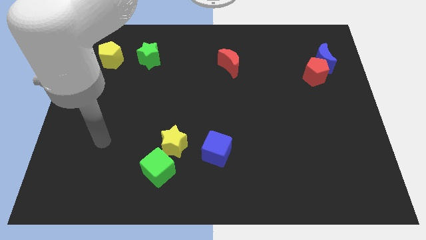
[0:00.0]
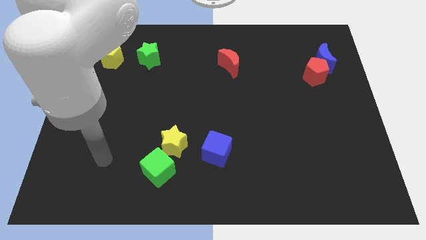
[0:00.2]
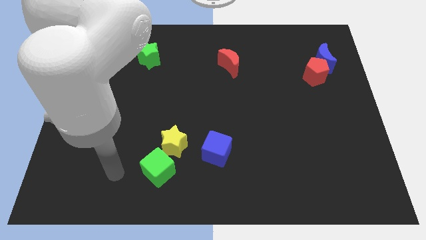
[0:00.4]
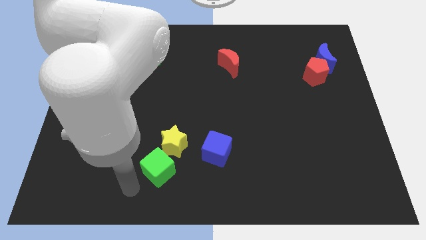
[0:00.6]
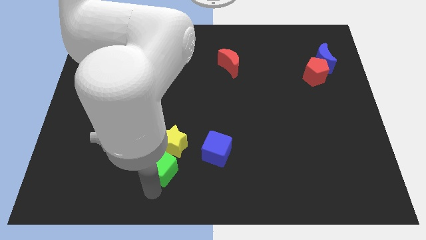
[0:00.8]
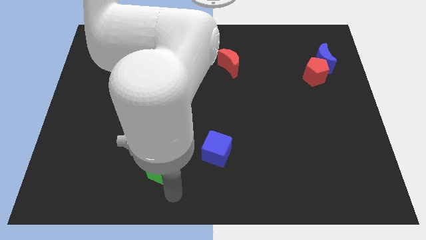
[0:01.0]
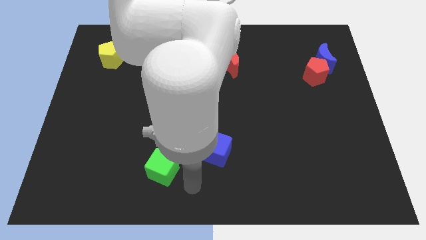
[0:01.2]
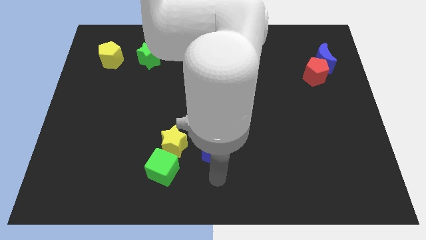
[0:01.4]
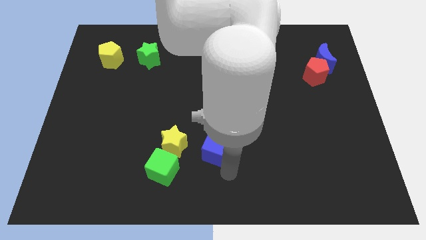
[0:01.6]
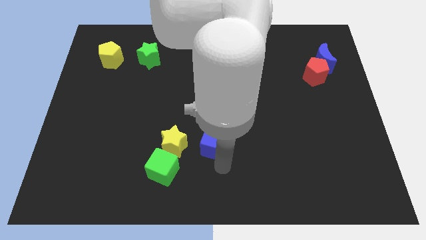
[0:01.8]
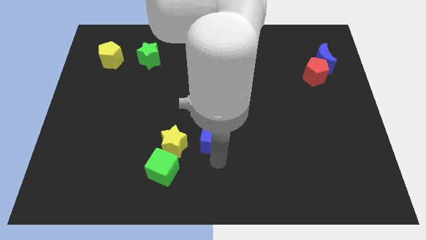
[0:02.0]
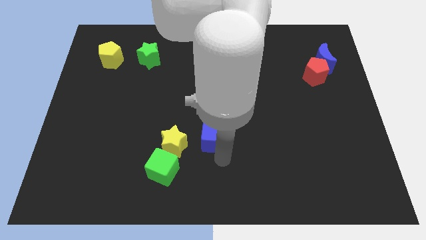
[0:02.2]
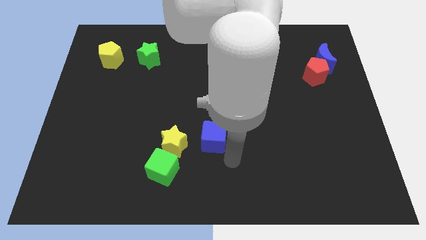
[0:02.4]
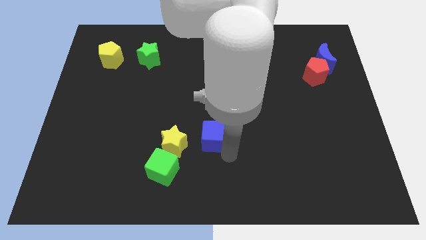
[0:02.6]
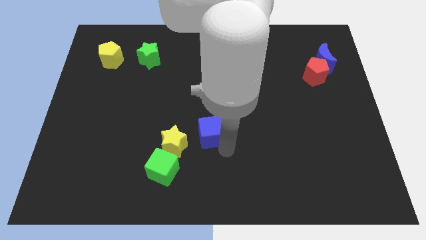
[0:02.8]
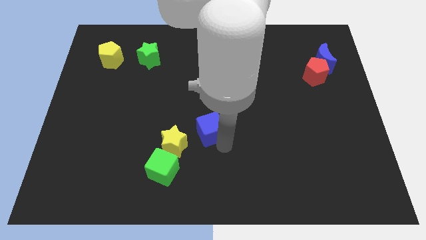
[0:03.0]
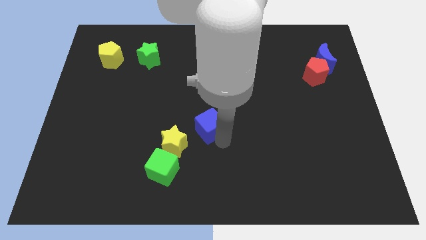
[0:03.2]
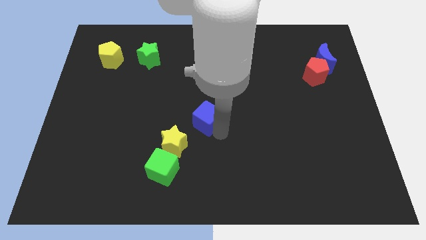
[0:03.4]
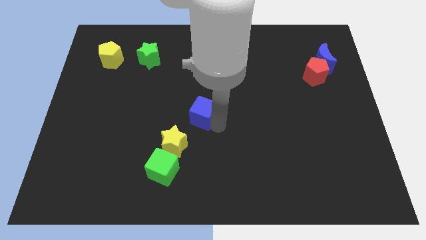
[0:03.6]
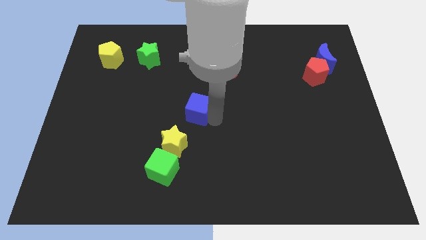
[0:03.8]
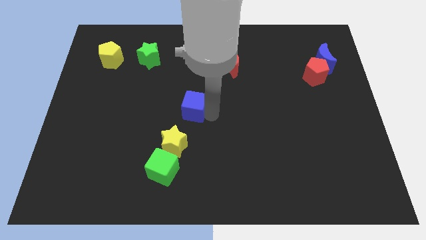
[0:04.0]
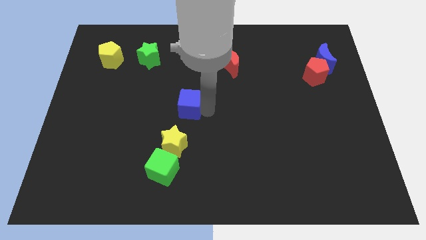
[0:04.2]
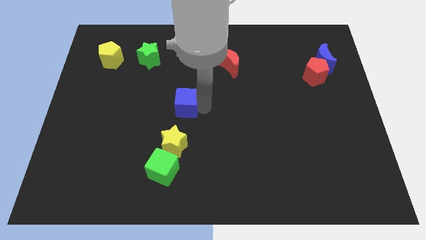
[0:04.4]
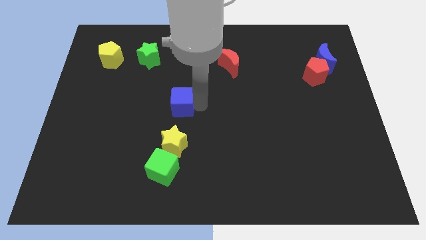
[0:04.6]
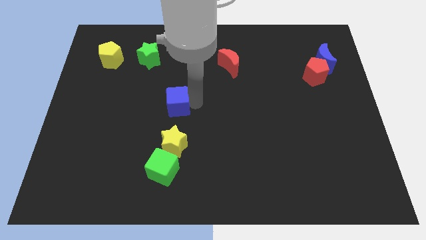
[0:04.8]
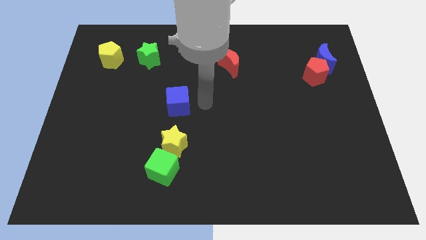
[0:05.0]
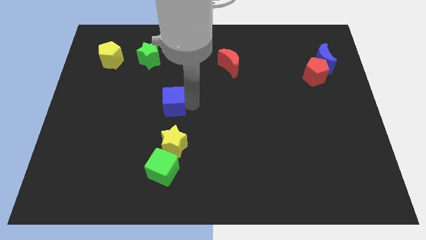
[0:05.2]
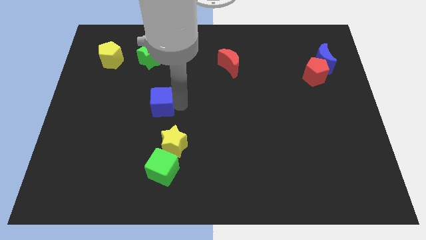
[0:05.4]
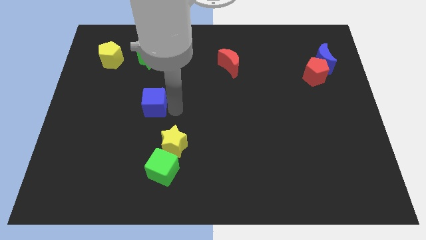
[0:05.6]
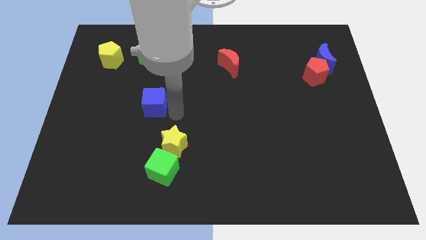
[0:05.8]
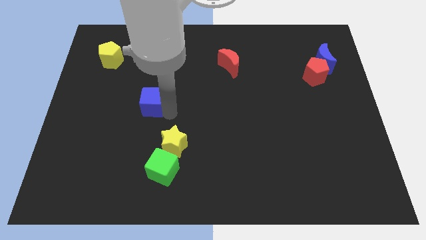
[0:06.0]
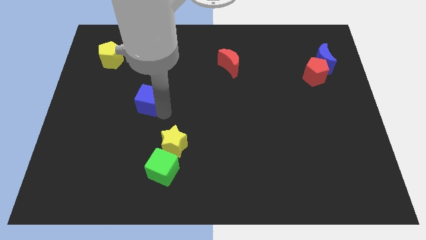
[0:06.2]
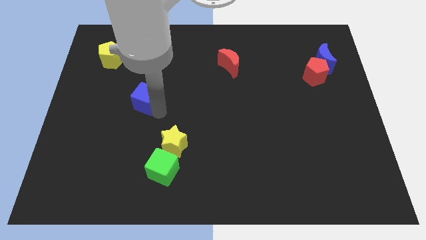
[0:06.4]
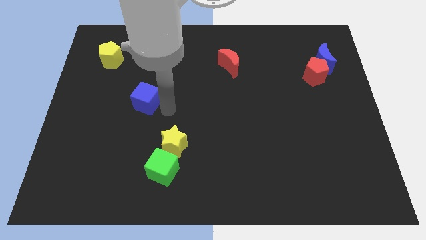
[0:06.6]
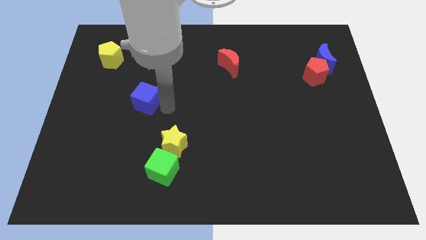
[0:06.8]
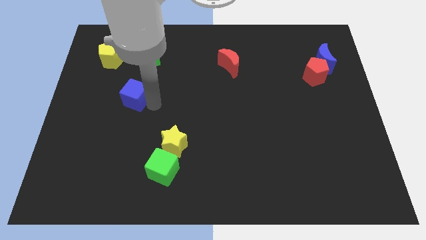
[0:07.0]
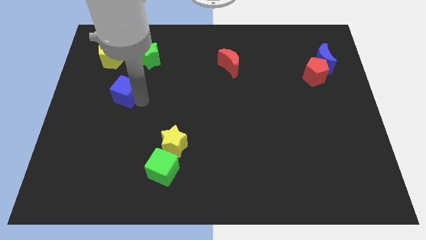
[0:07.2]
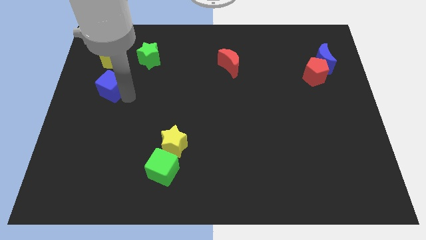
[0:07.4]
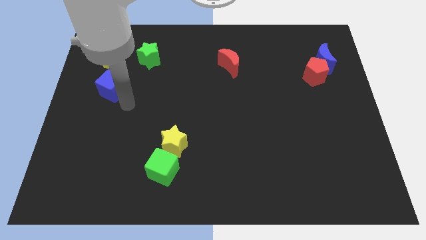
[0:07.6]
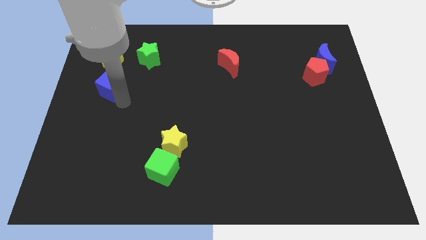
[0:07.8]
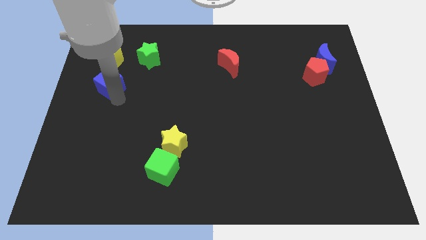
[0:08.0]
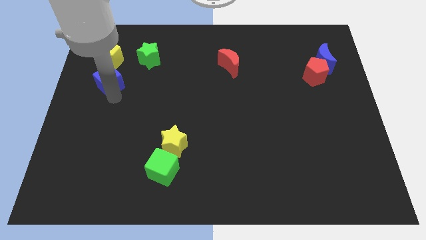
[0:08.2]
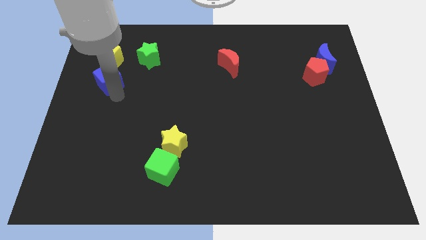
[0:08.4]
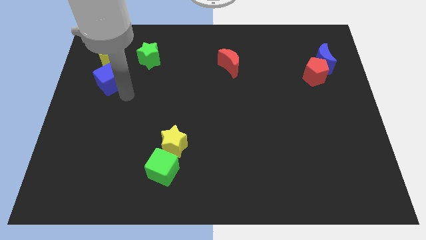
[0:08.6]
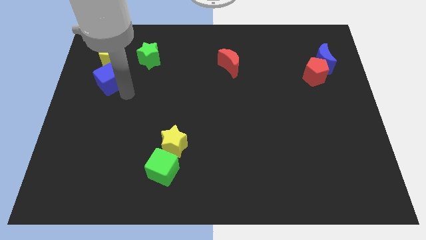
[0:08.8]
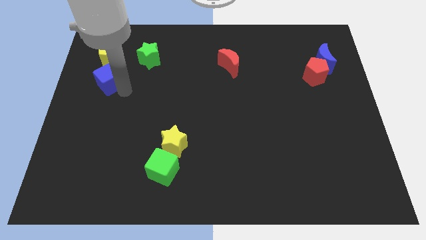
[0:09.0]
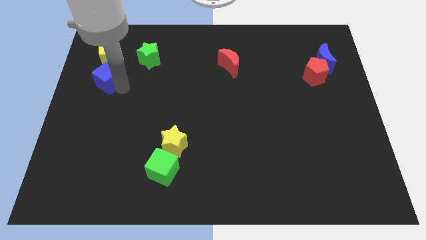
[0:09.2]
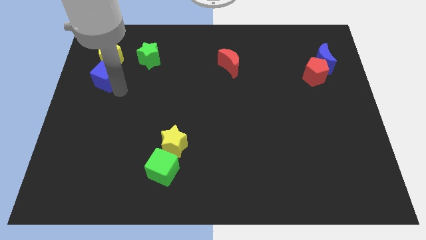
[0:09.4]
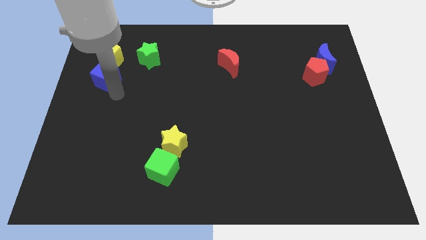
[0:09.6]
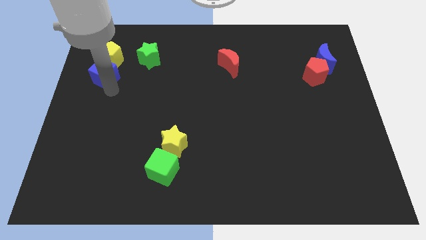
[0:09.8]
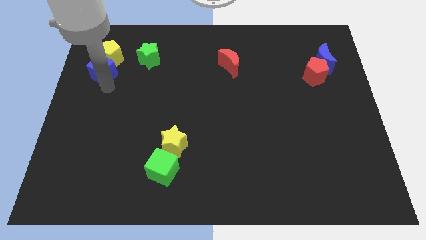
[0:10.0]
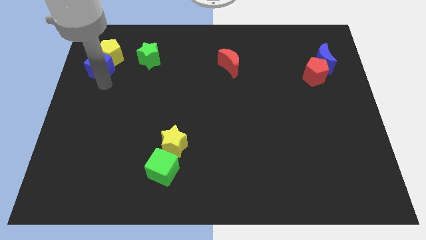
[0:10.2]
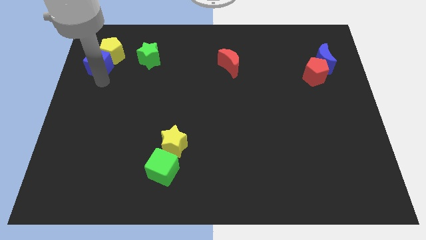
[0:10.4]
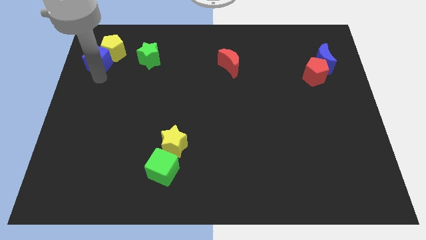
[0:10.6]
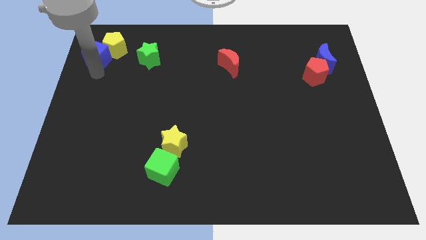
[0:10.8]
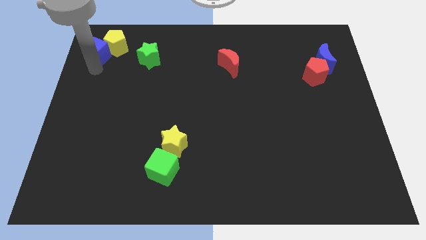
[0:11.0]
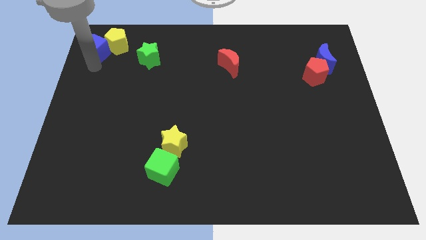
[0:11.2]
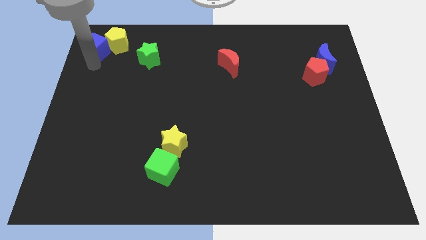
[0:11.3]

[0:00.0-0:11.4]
push the blue cube to the top left of the board

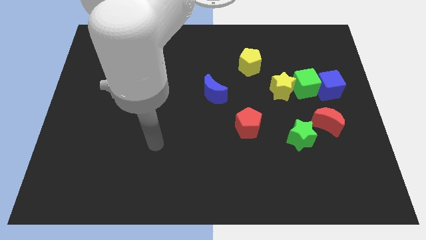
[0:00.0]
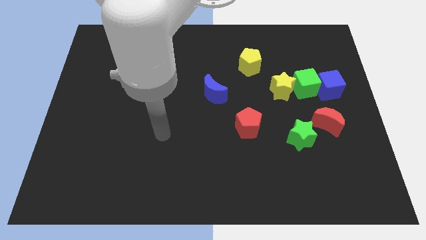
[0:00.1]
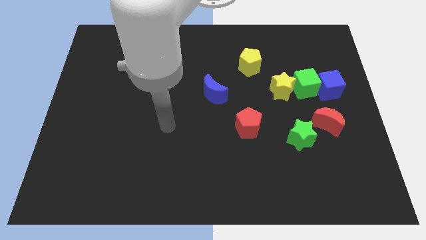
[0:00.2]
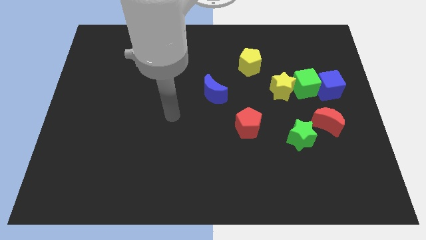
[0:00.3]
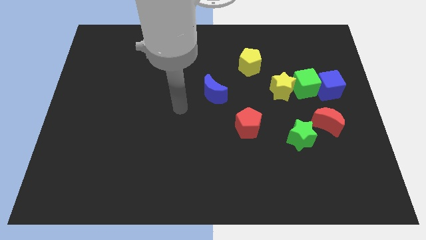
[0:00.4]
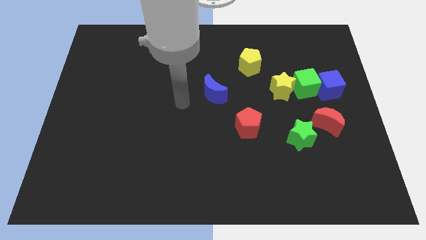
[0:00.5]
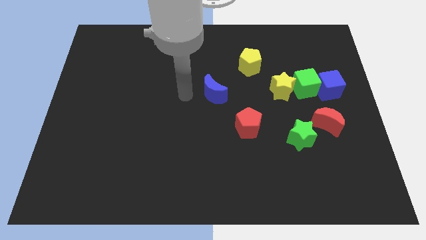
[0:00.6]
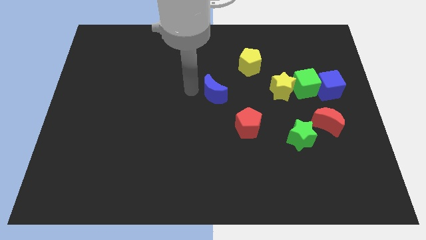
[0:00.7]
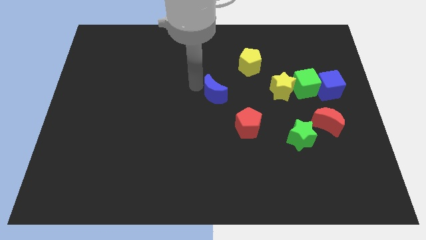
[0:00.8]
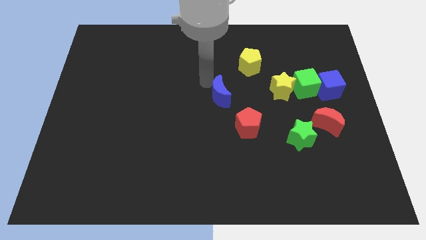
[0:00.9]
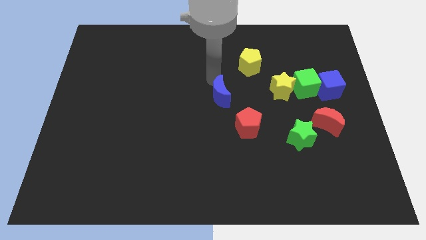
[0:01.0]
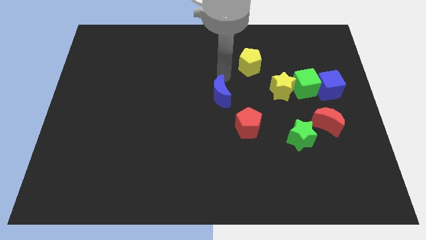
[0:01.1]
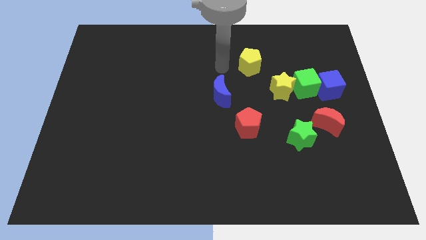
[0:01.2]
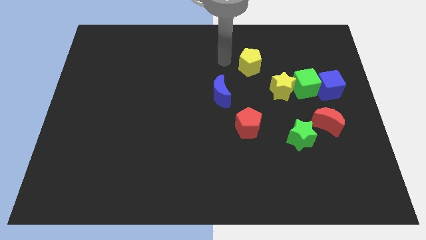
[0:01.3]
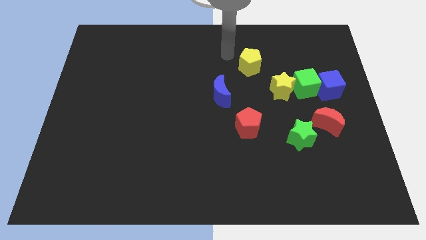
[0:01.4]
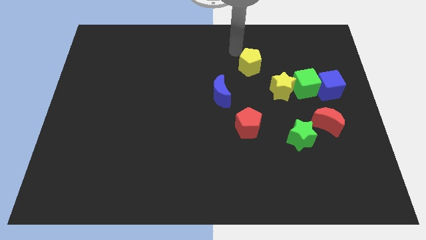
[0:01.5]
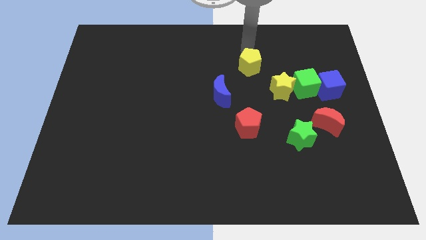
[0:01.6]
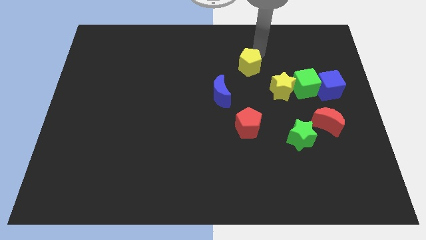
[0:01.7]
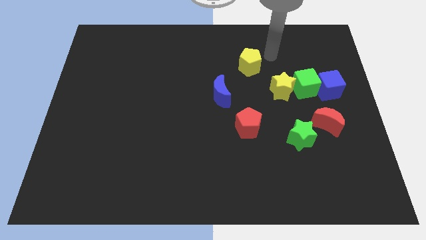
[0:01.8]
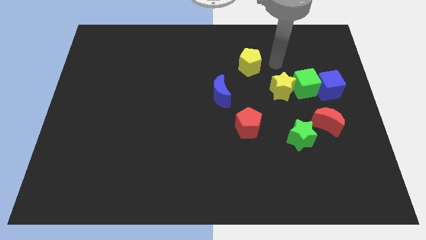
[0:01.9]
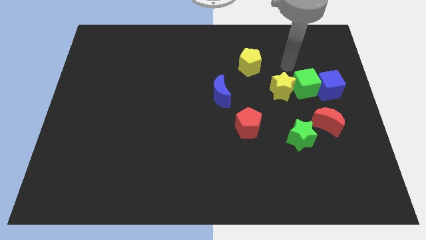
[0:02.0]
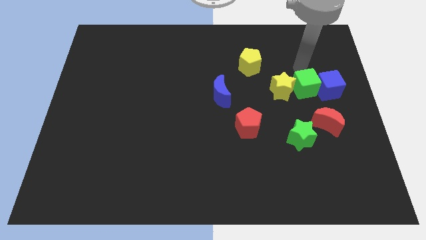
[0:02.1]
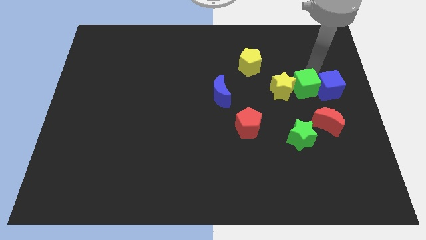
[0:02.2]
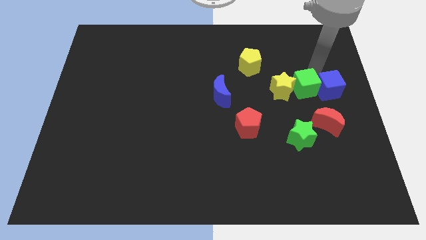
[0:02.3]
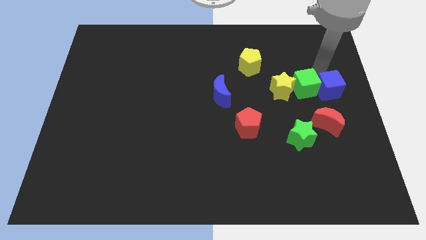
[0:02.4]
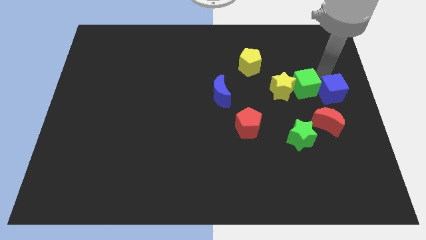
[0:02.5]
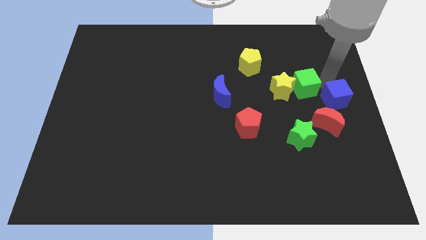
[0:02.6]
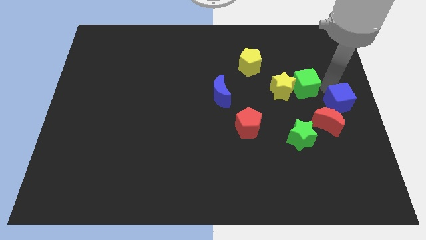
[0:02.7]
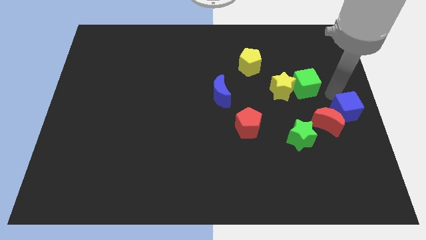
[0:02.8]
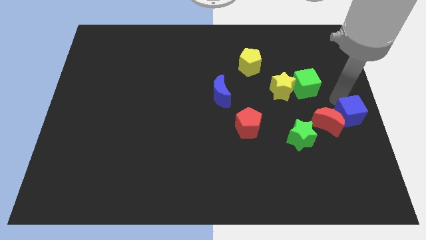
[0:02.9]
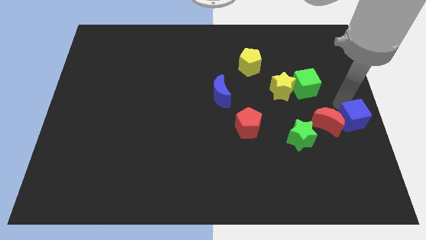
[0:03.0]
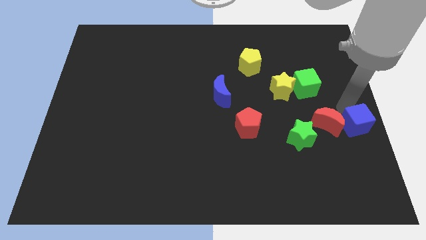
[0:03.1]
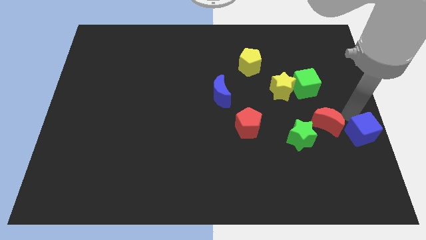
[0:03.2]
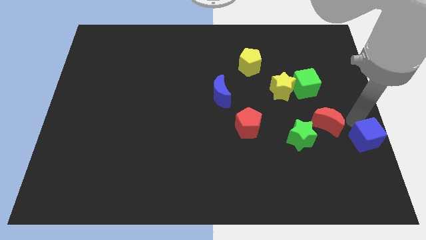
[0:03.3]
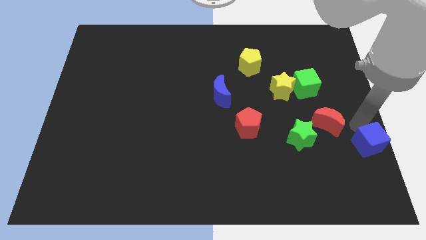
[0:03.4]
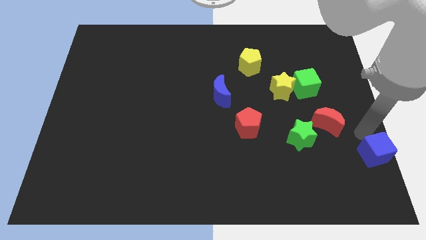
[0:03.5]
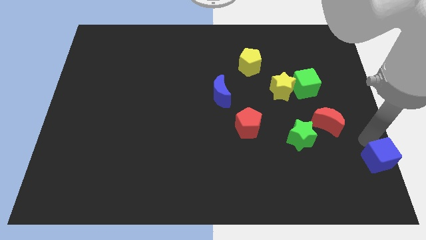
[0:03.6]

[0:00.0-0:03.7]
put the blue cube to the bottom right corner
